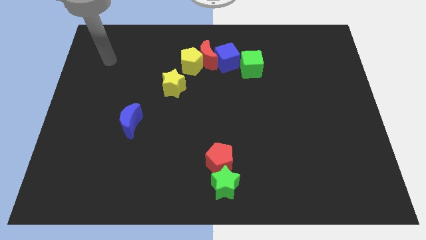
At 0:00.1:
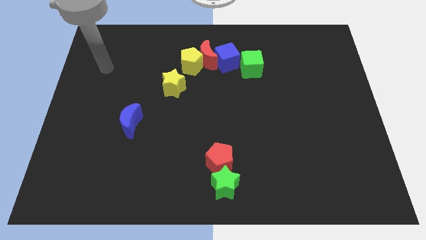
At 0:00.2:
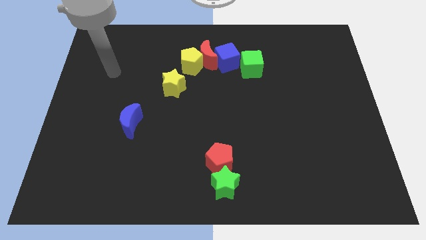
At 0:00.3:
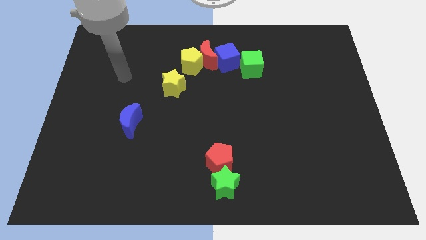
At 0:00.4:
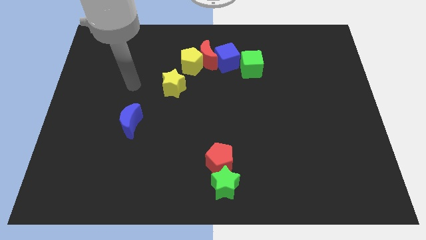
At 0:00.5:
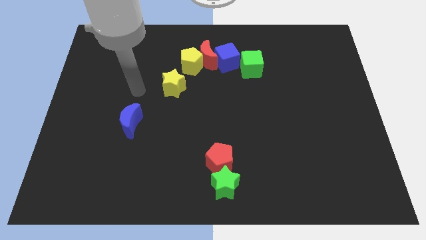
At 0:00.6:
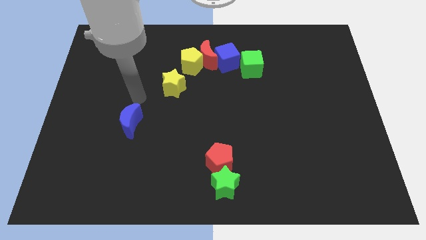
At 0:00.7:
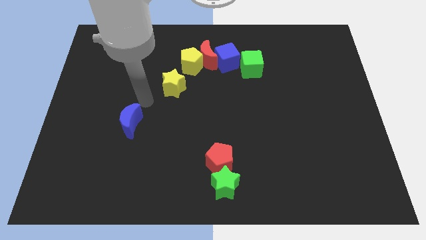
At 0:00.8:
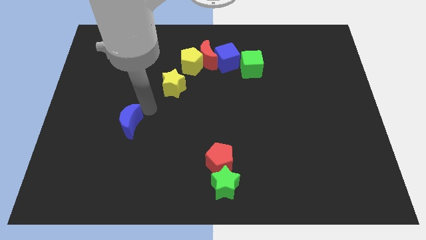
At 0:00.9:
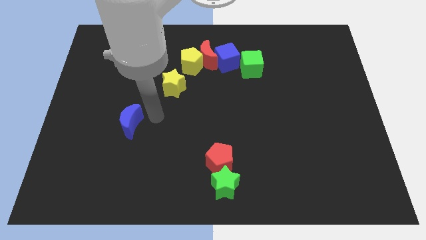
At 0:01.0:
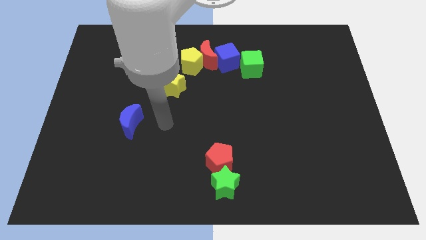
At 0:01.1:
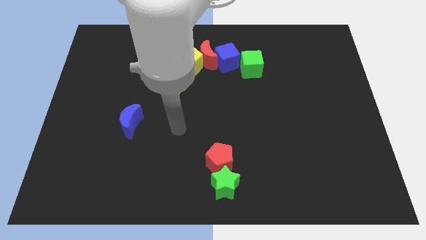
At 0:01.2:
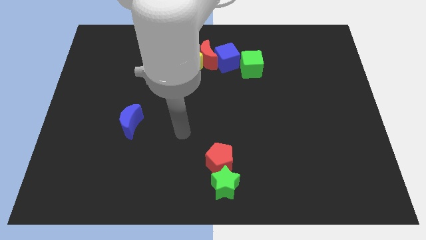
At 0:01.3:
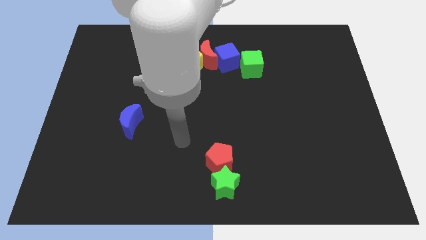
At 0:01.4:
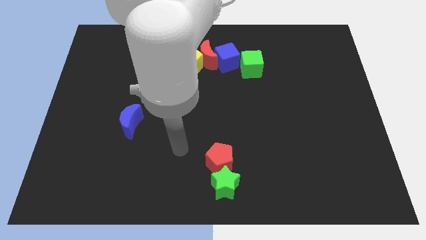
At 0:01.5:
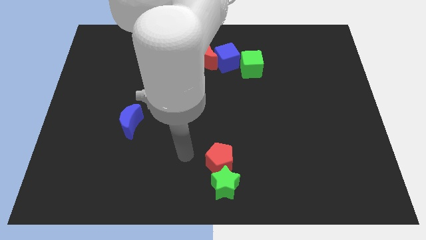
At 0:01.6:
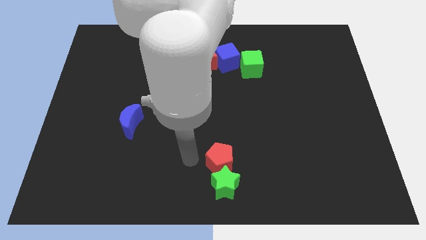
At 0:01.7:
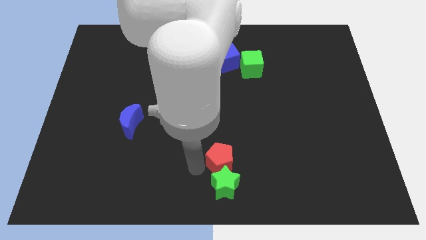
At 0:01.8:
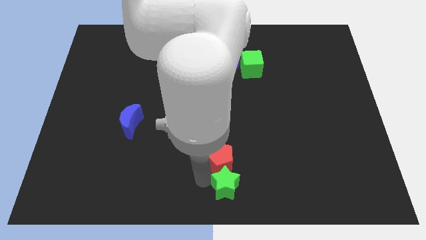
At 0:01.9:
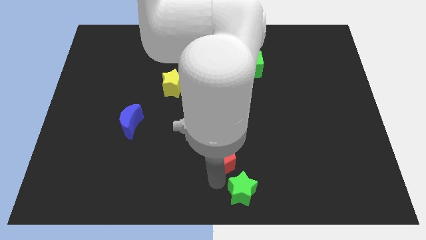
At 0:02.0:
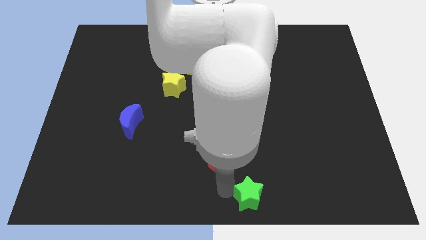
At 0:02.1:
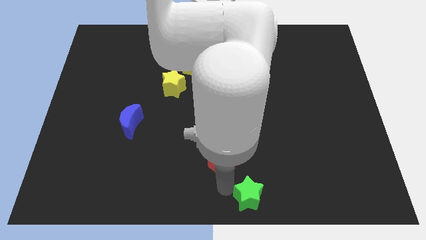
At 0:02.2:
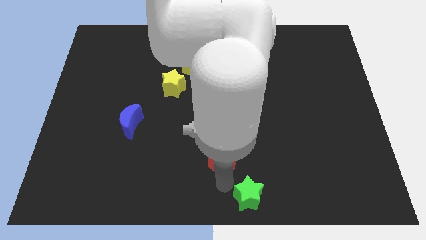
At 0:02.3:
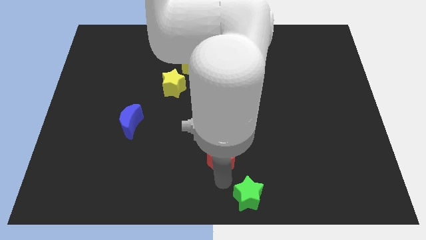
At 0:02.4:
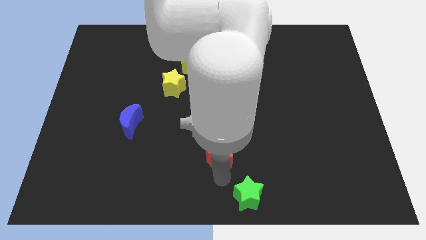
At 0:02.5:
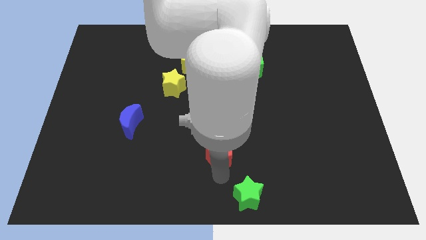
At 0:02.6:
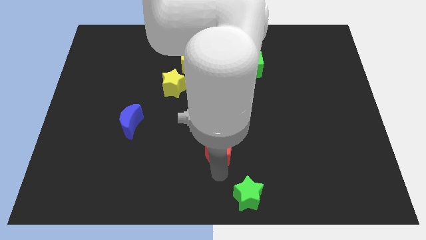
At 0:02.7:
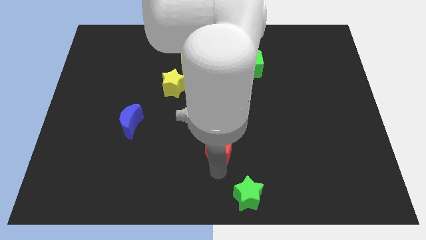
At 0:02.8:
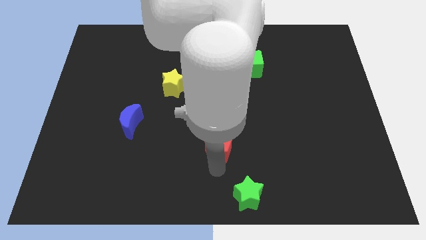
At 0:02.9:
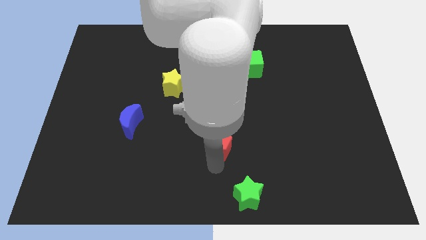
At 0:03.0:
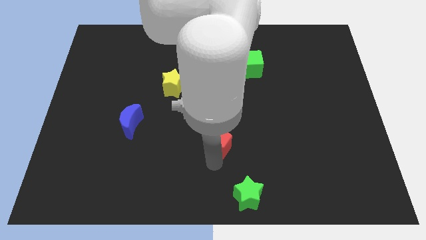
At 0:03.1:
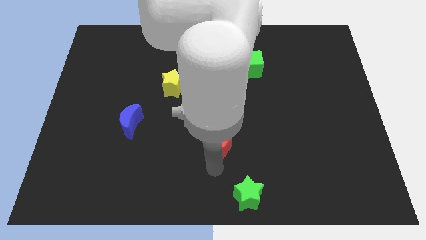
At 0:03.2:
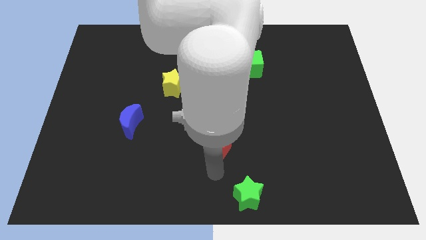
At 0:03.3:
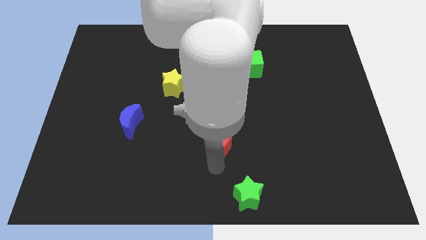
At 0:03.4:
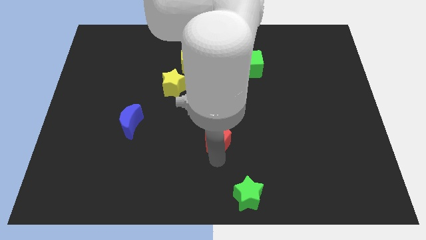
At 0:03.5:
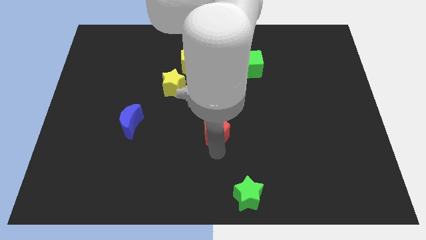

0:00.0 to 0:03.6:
slightly push the red pentagon up

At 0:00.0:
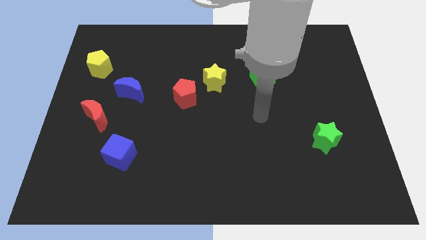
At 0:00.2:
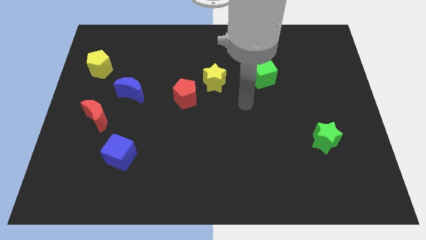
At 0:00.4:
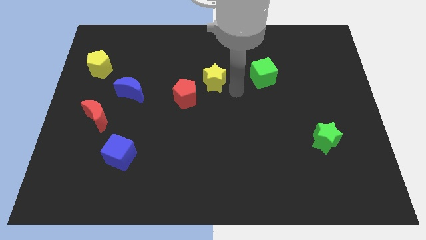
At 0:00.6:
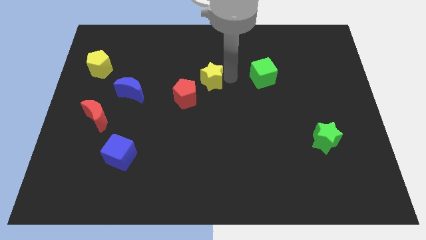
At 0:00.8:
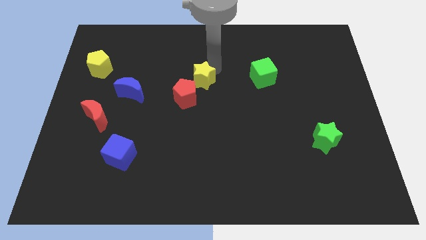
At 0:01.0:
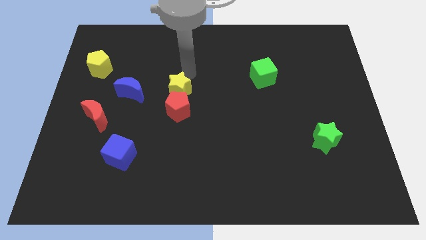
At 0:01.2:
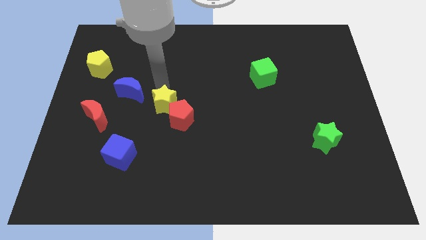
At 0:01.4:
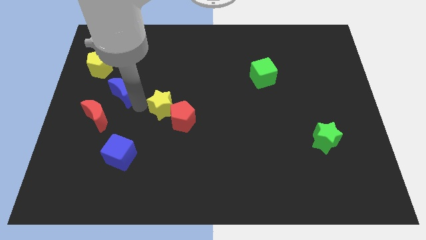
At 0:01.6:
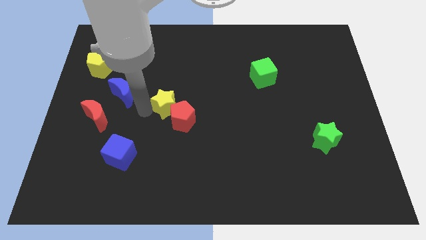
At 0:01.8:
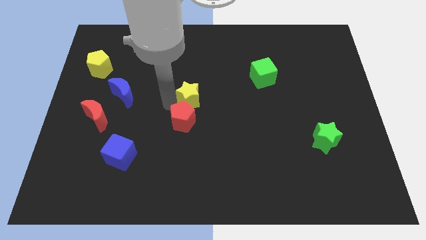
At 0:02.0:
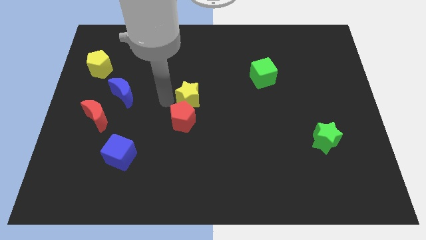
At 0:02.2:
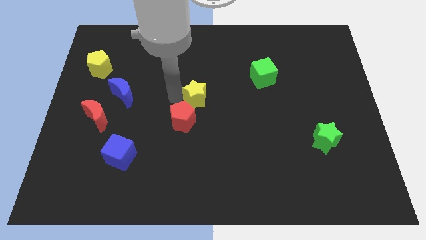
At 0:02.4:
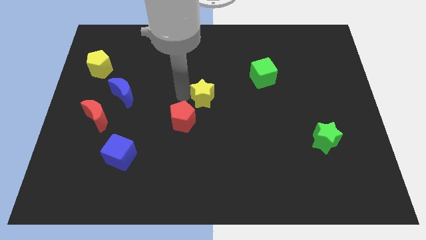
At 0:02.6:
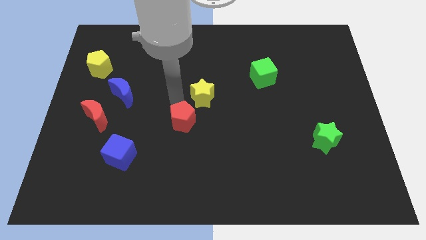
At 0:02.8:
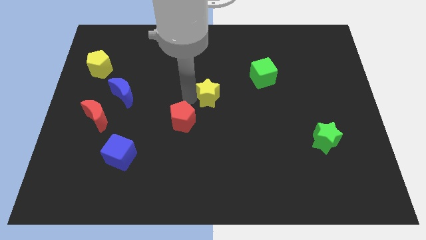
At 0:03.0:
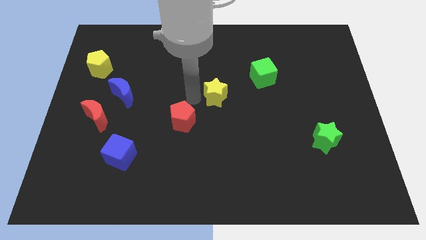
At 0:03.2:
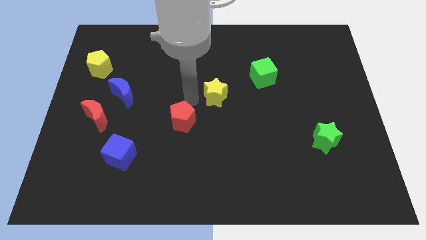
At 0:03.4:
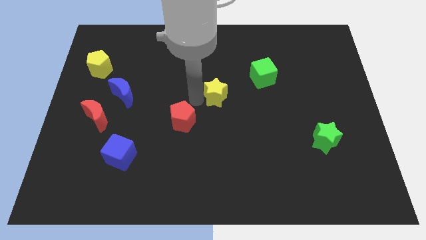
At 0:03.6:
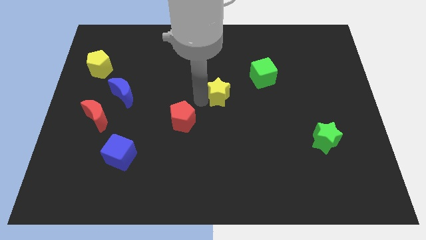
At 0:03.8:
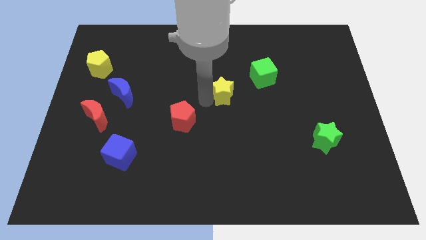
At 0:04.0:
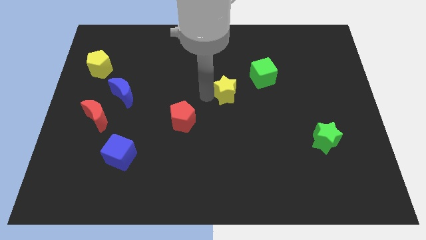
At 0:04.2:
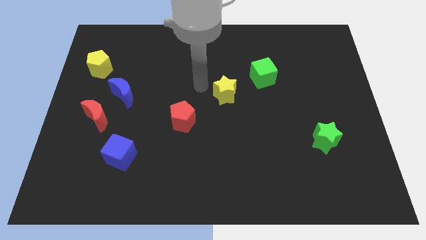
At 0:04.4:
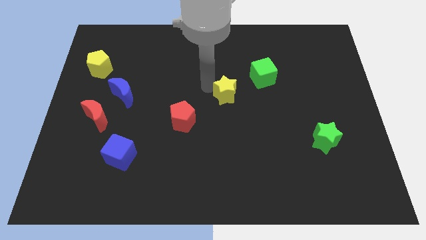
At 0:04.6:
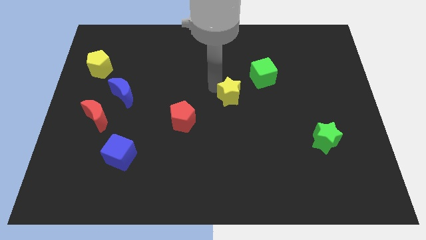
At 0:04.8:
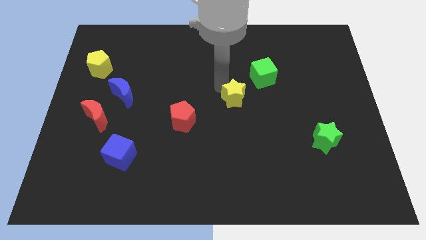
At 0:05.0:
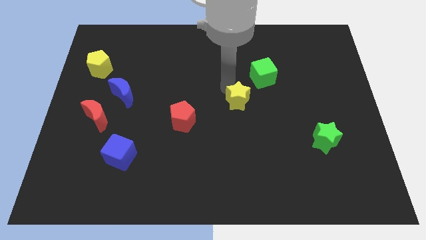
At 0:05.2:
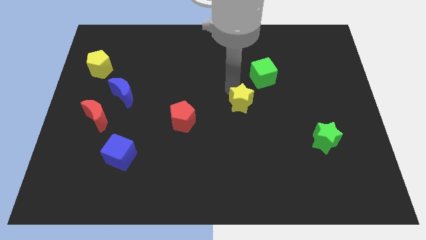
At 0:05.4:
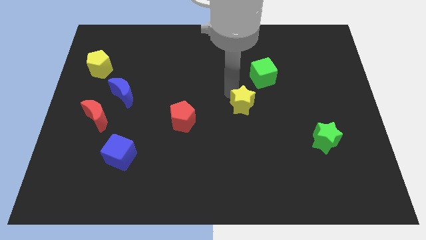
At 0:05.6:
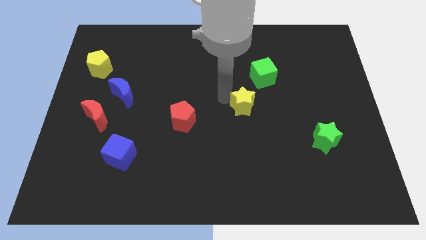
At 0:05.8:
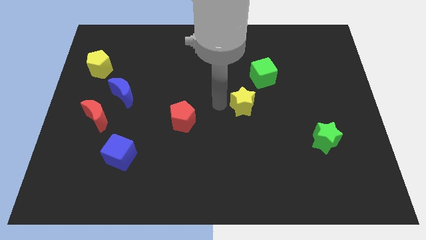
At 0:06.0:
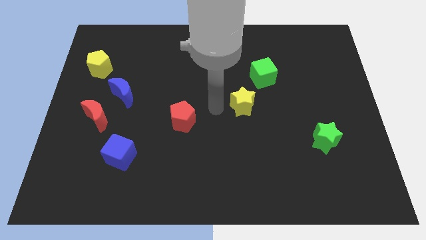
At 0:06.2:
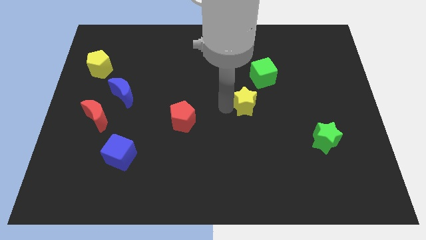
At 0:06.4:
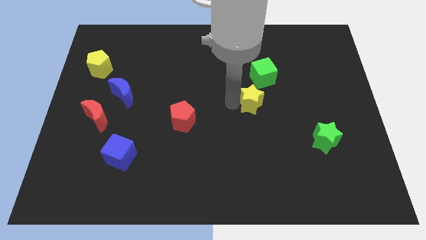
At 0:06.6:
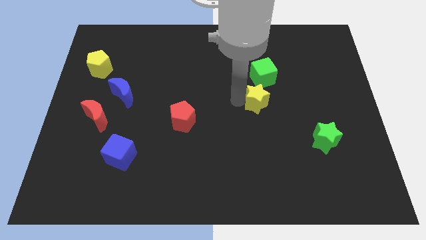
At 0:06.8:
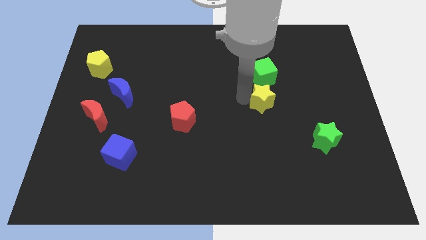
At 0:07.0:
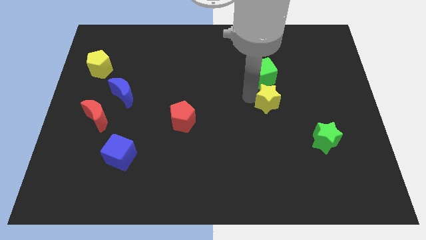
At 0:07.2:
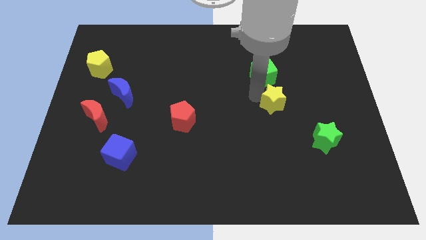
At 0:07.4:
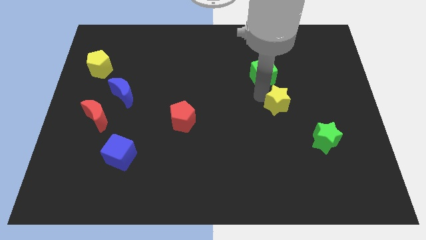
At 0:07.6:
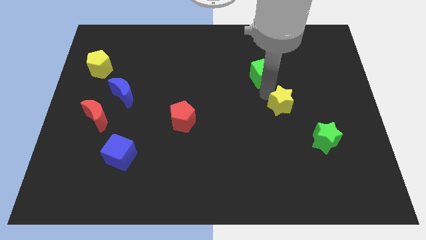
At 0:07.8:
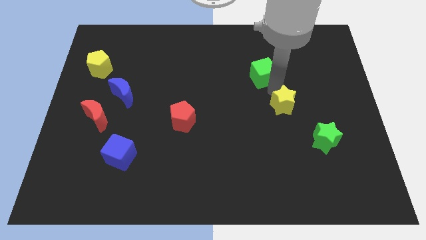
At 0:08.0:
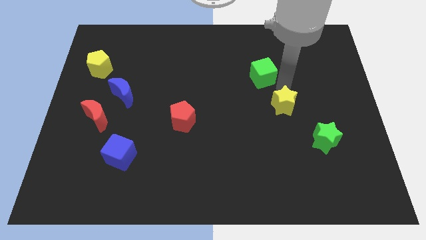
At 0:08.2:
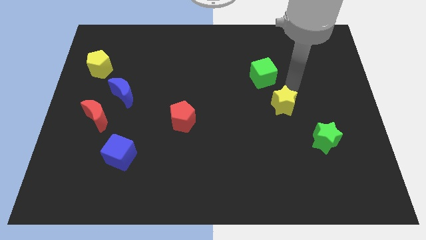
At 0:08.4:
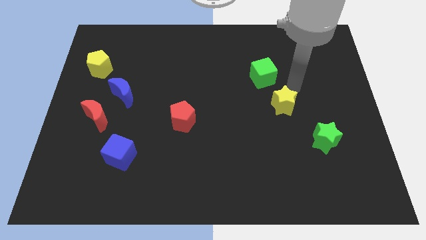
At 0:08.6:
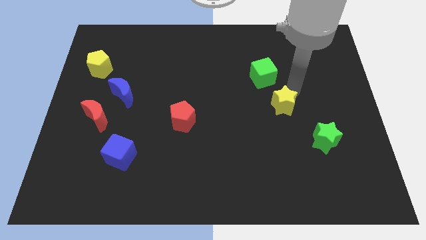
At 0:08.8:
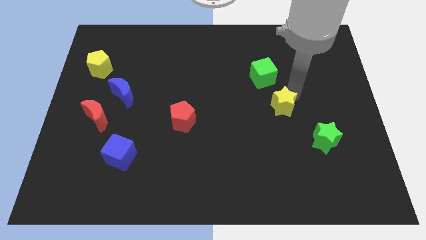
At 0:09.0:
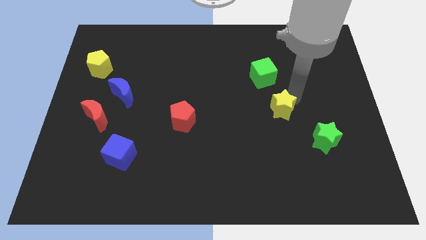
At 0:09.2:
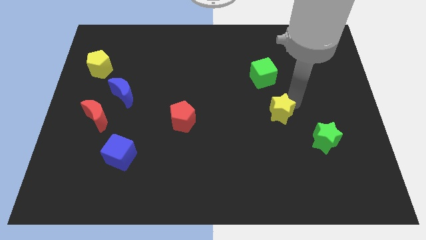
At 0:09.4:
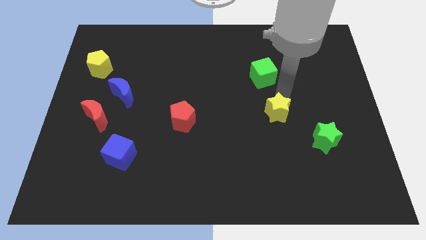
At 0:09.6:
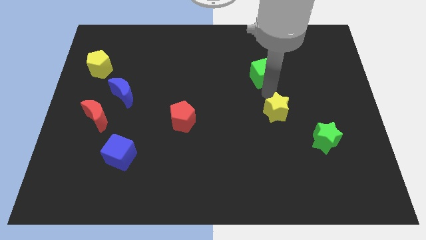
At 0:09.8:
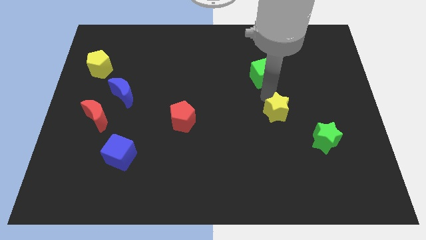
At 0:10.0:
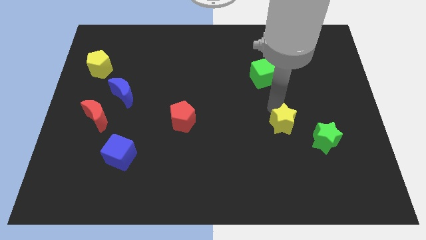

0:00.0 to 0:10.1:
push the yellow star downwards and right

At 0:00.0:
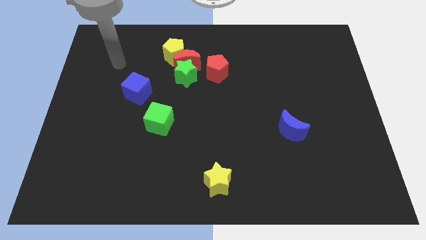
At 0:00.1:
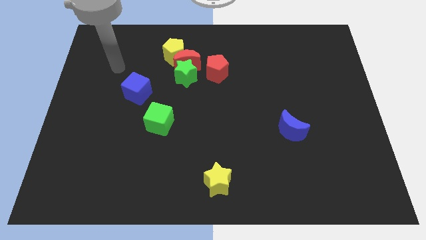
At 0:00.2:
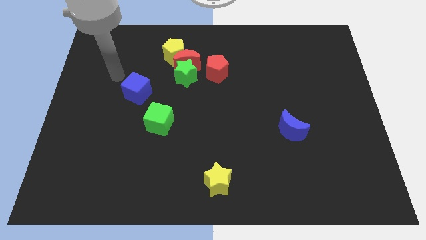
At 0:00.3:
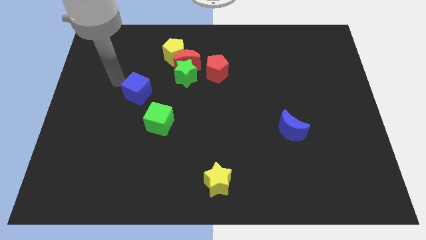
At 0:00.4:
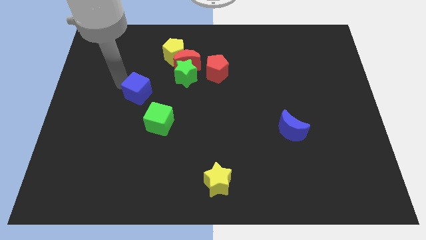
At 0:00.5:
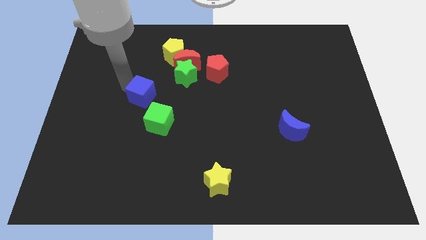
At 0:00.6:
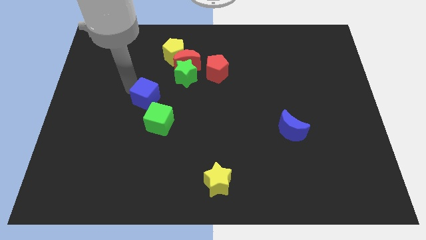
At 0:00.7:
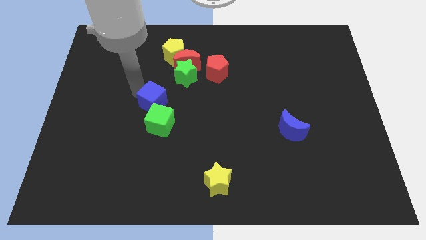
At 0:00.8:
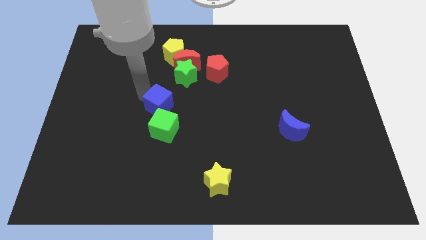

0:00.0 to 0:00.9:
push the blue cube downwards and then to the right somewhat
